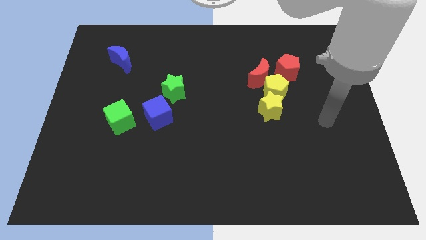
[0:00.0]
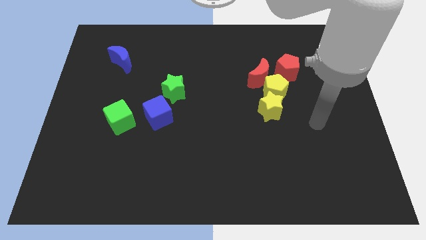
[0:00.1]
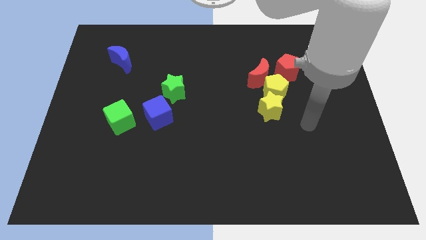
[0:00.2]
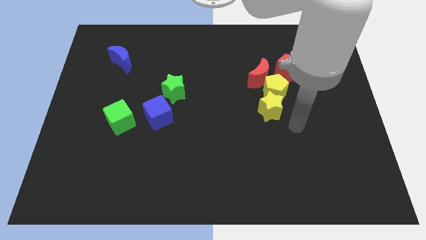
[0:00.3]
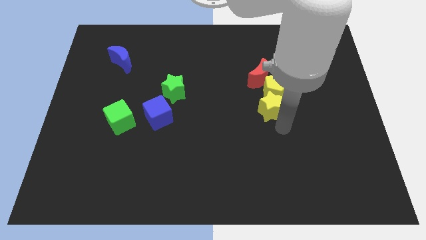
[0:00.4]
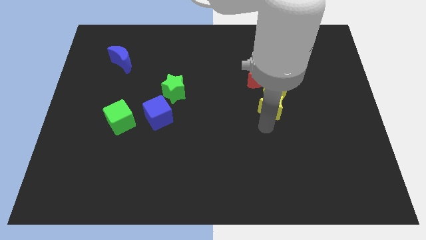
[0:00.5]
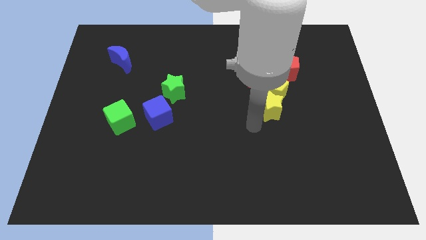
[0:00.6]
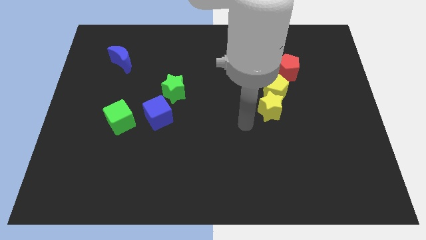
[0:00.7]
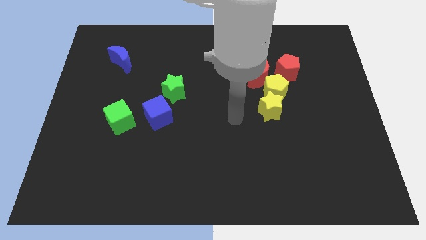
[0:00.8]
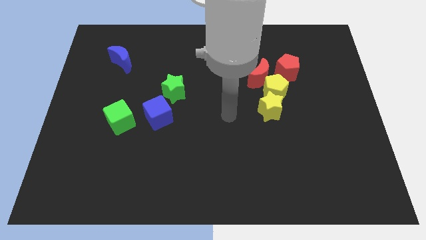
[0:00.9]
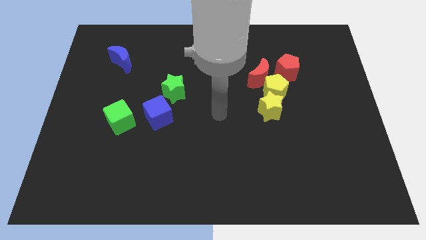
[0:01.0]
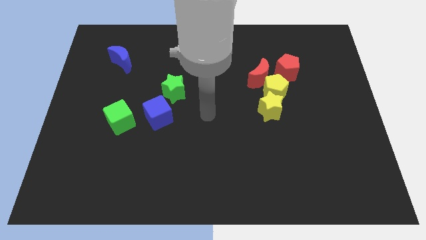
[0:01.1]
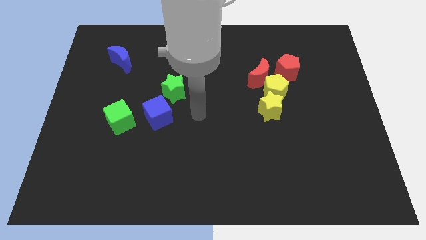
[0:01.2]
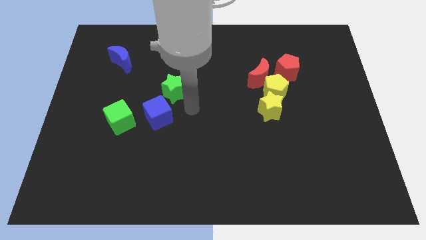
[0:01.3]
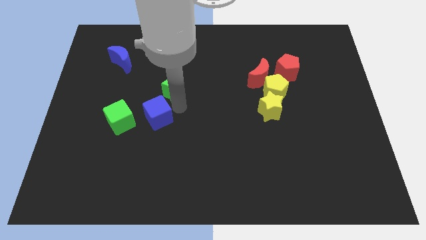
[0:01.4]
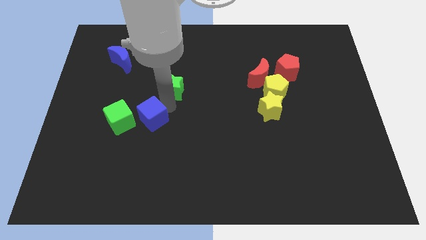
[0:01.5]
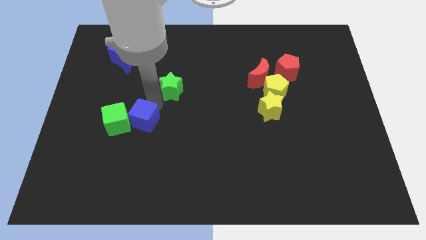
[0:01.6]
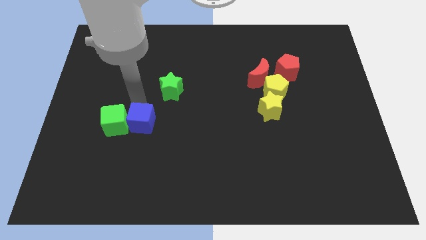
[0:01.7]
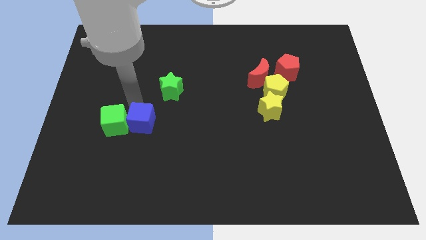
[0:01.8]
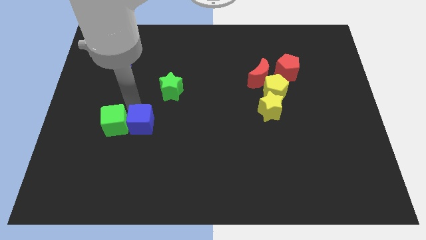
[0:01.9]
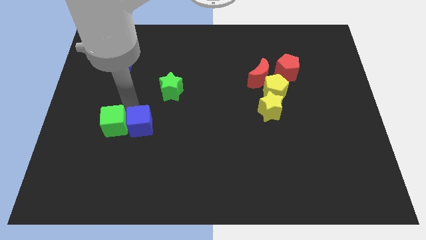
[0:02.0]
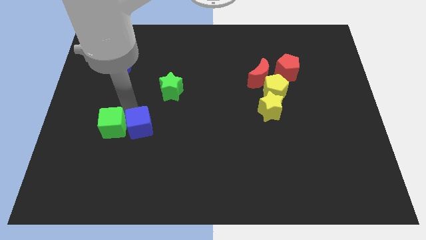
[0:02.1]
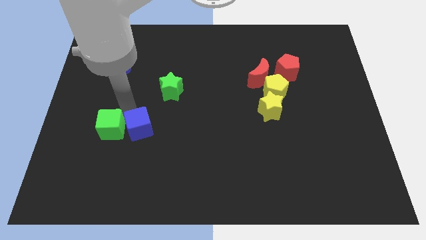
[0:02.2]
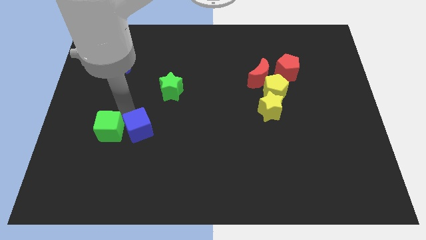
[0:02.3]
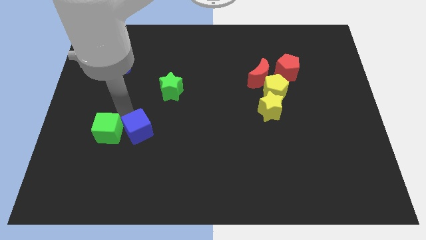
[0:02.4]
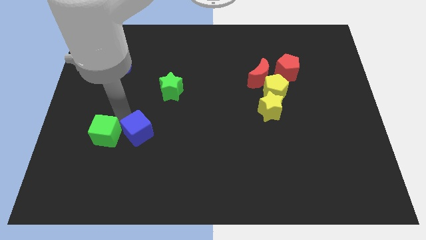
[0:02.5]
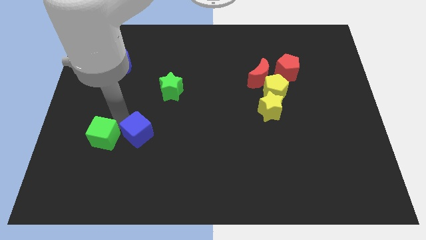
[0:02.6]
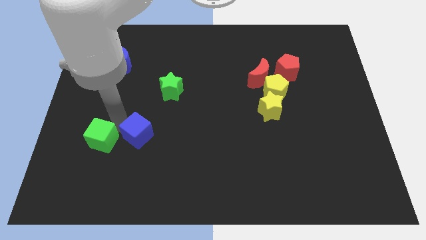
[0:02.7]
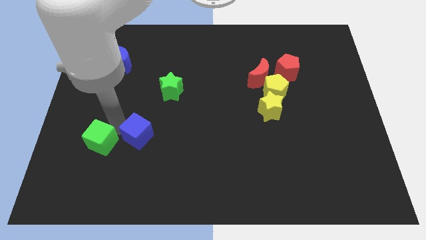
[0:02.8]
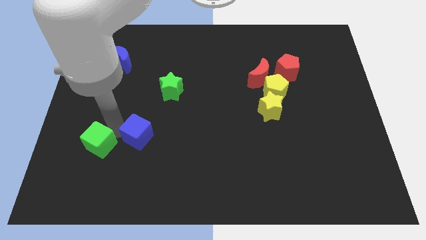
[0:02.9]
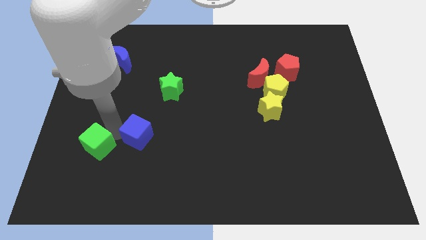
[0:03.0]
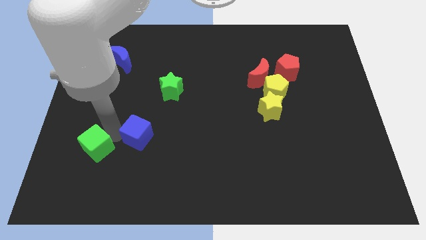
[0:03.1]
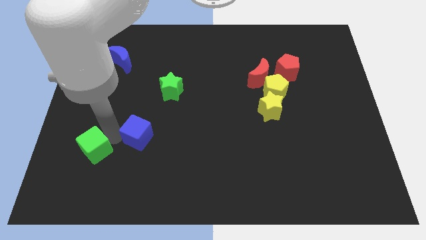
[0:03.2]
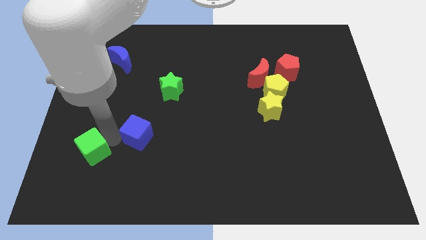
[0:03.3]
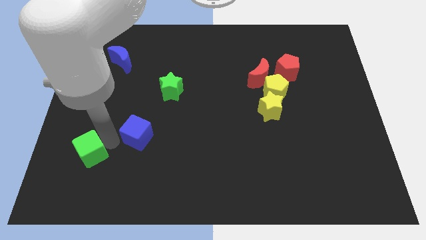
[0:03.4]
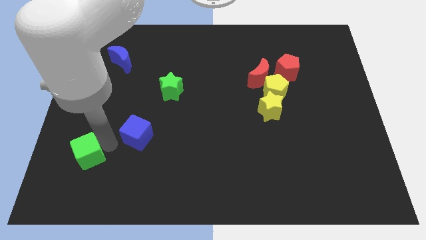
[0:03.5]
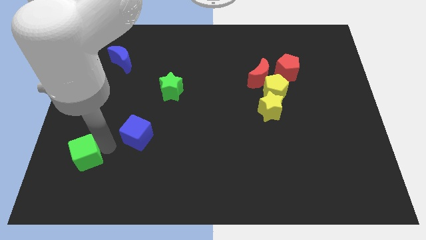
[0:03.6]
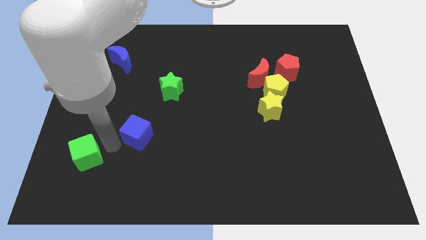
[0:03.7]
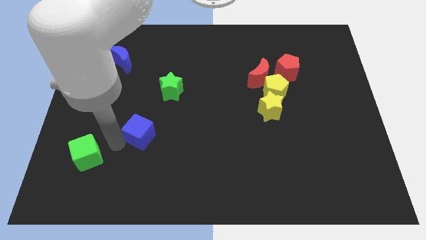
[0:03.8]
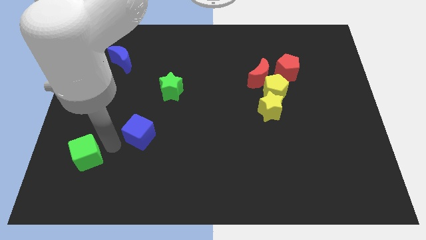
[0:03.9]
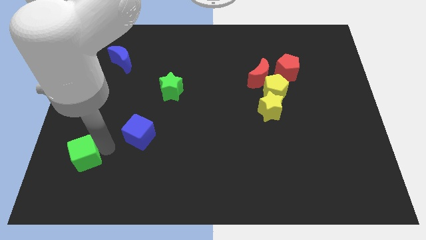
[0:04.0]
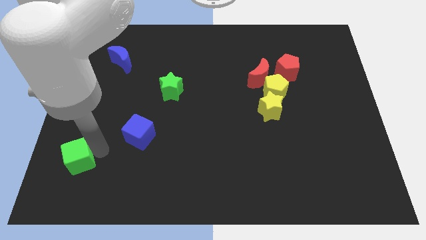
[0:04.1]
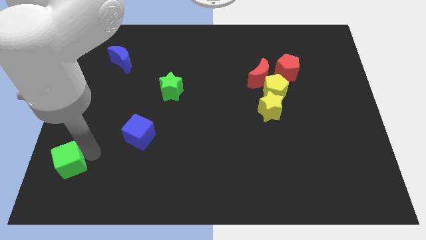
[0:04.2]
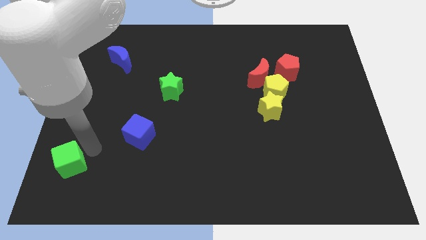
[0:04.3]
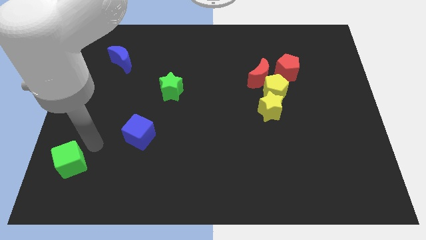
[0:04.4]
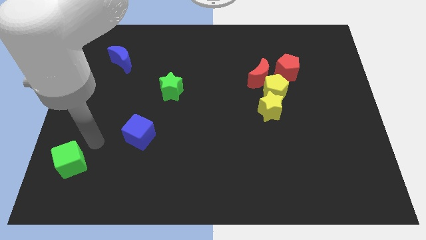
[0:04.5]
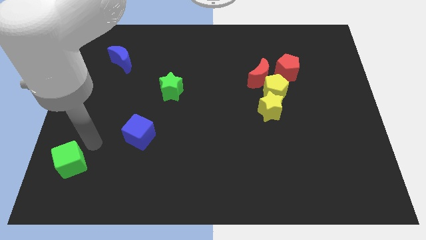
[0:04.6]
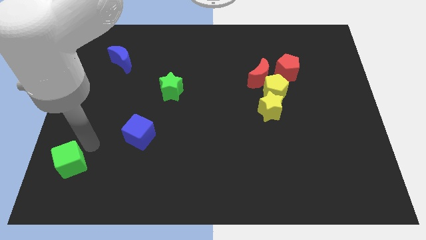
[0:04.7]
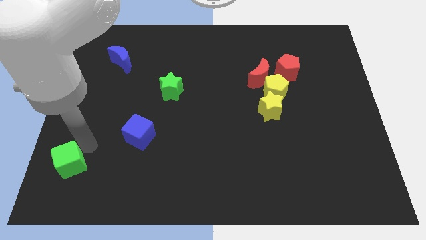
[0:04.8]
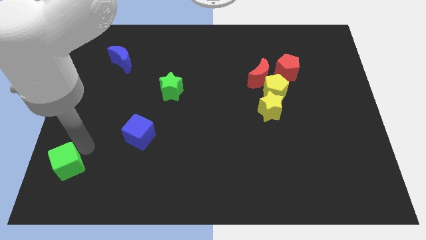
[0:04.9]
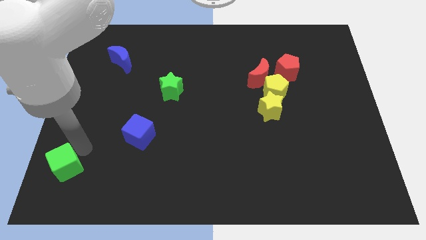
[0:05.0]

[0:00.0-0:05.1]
put the green cube to the bottom left of the board

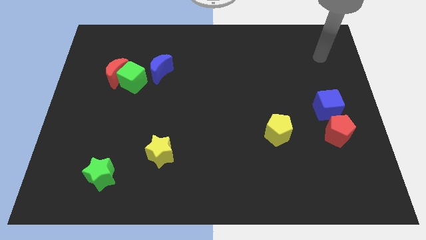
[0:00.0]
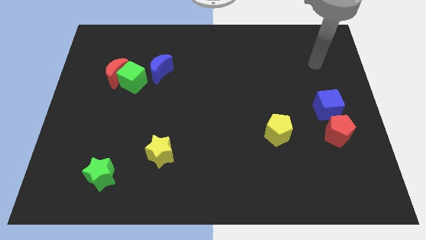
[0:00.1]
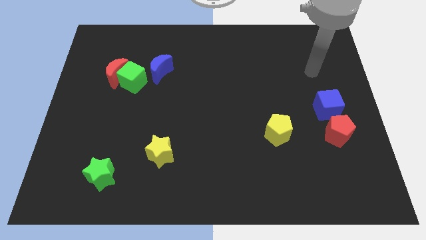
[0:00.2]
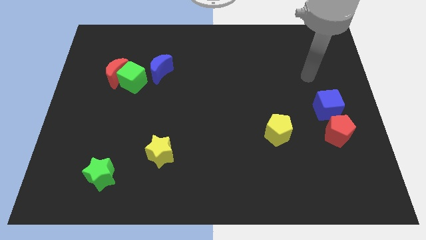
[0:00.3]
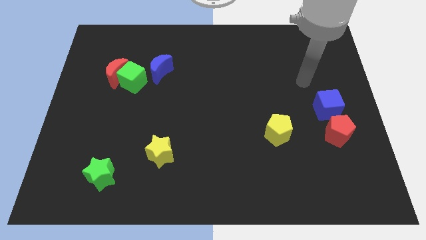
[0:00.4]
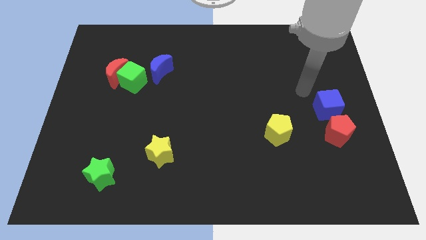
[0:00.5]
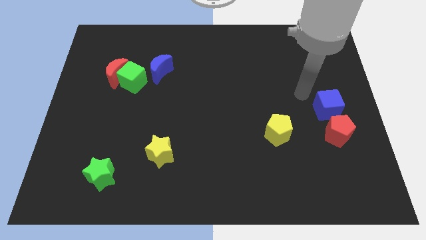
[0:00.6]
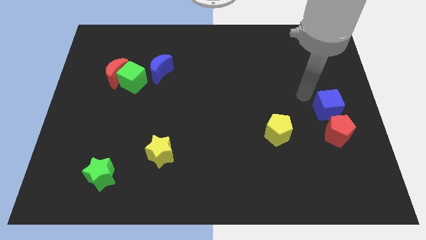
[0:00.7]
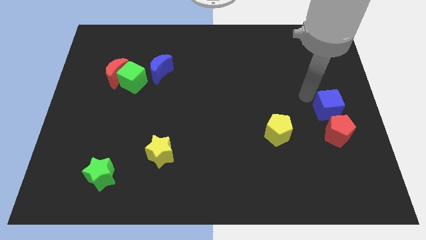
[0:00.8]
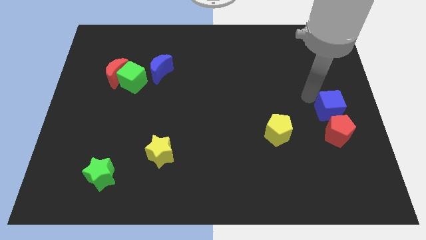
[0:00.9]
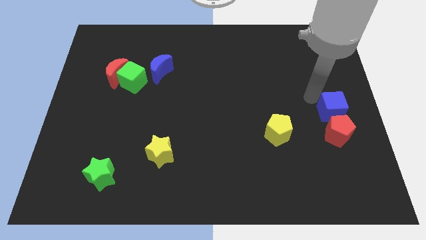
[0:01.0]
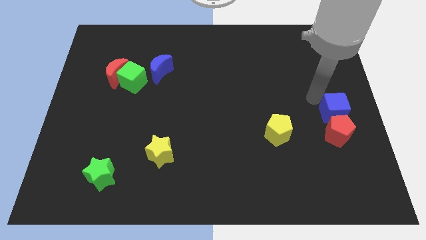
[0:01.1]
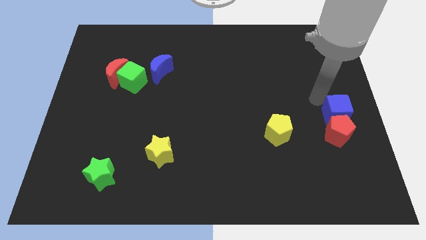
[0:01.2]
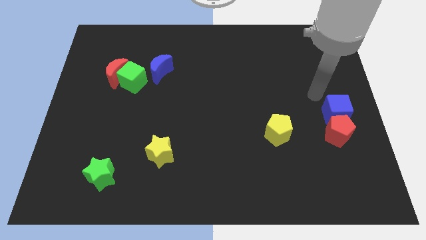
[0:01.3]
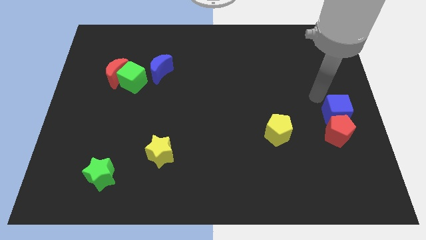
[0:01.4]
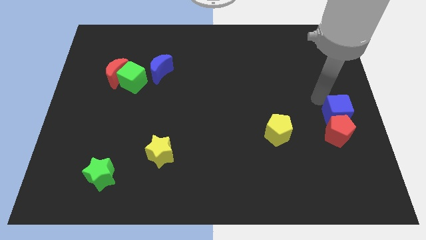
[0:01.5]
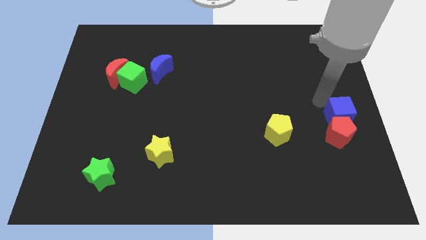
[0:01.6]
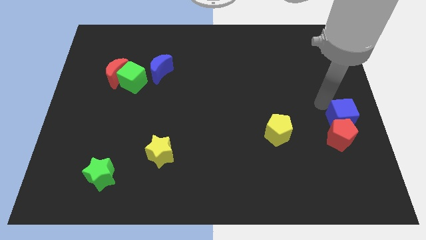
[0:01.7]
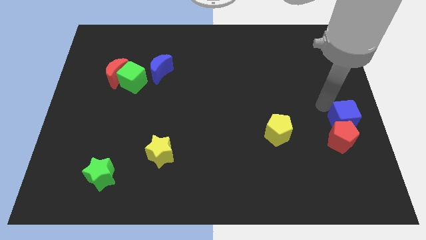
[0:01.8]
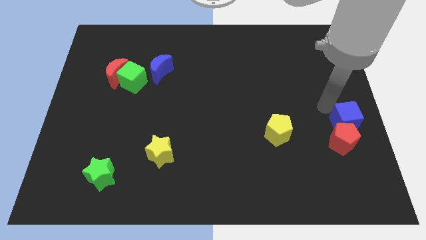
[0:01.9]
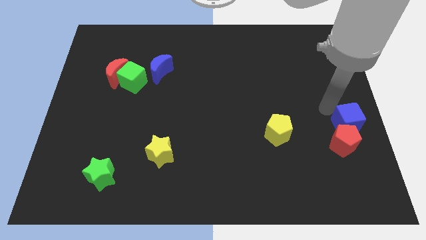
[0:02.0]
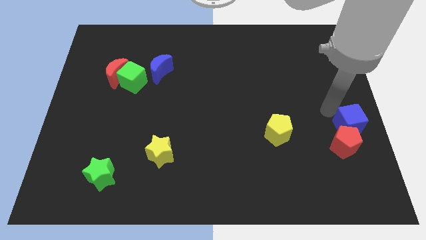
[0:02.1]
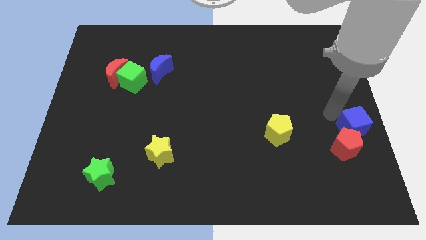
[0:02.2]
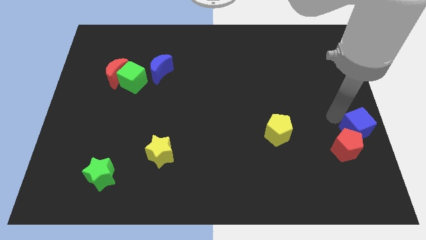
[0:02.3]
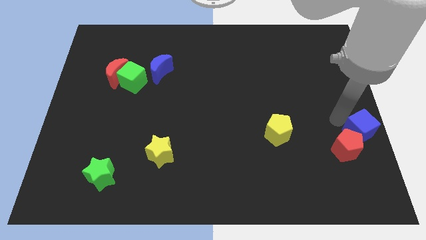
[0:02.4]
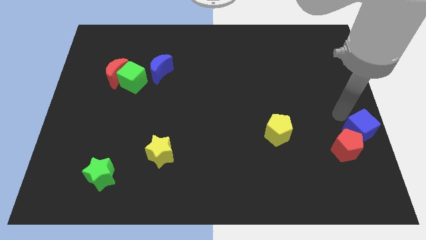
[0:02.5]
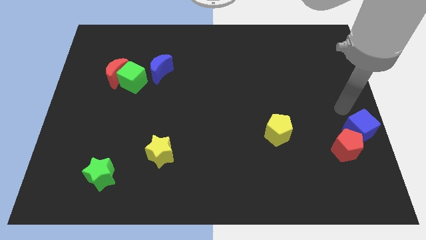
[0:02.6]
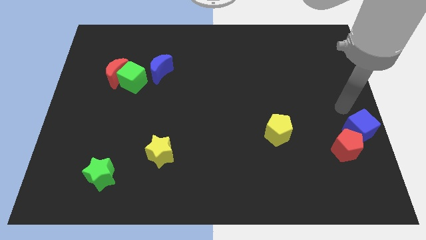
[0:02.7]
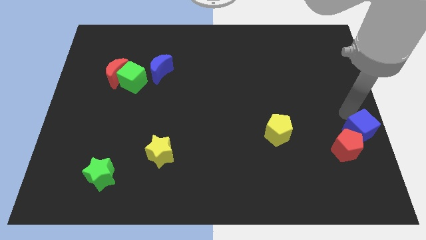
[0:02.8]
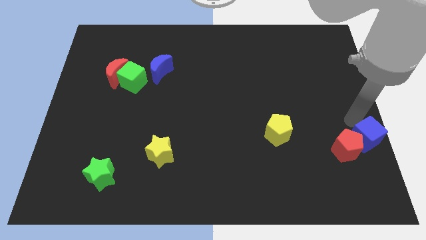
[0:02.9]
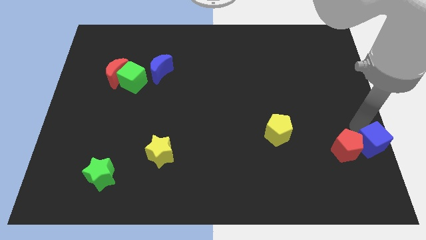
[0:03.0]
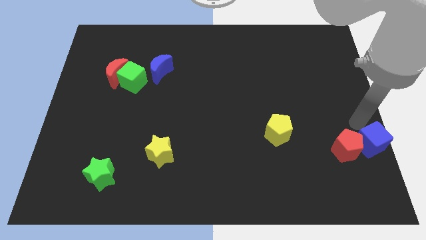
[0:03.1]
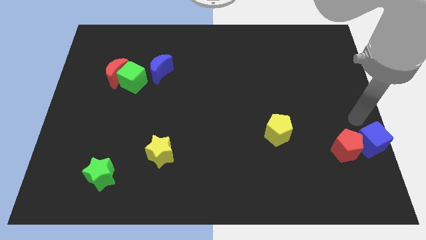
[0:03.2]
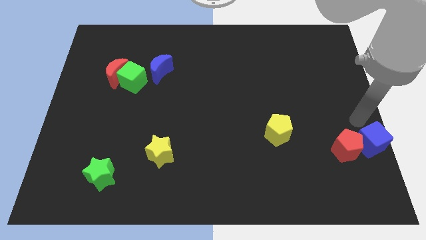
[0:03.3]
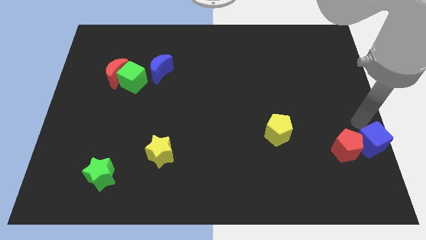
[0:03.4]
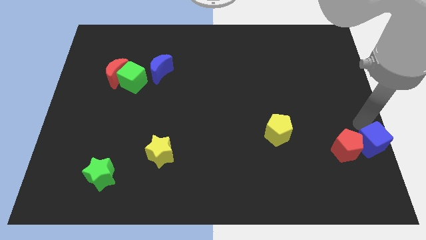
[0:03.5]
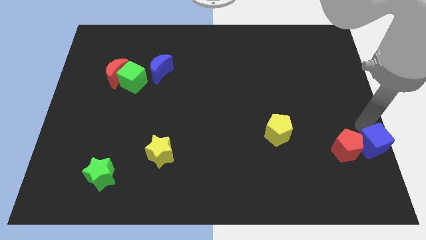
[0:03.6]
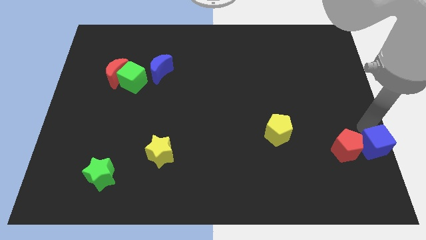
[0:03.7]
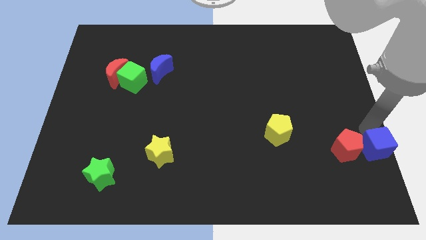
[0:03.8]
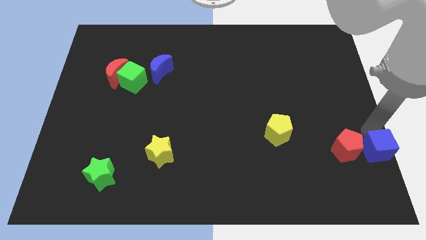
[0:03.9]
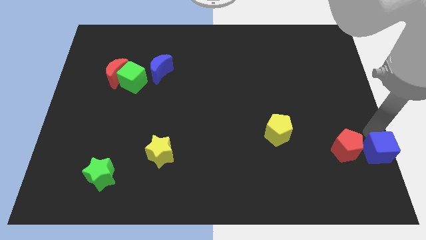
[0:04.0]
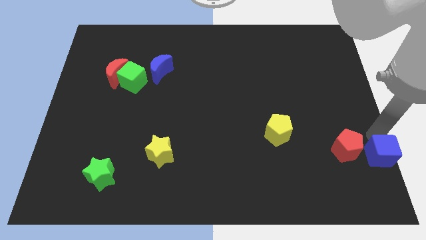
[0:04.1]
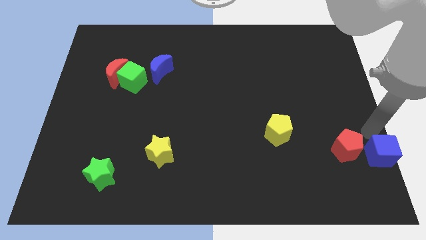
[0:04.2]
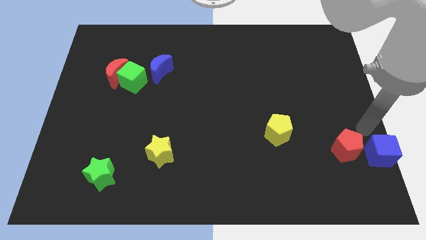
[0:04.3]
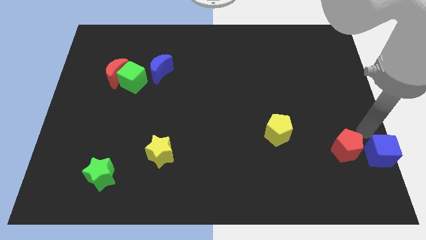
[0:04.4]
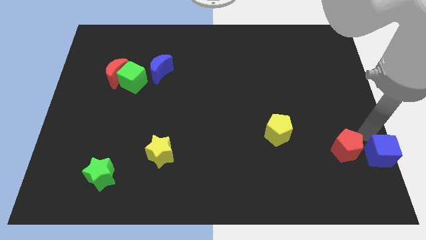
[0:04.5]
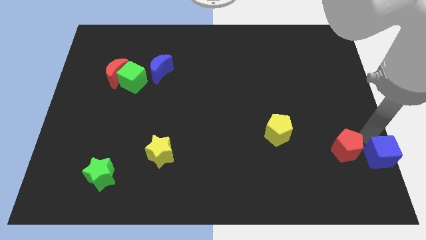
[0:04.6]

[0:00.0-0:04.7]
slide the blue cube to the bottom right
